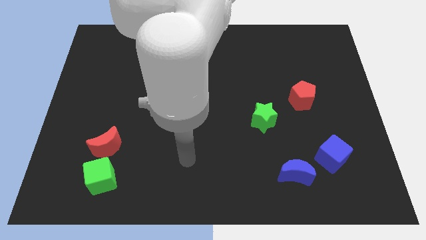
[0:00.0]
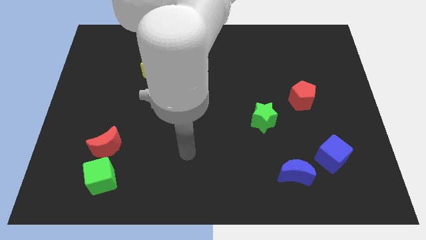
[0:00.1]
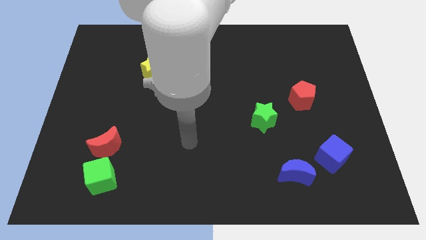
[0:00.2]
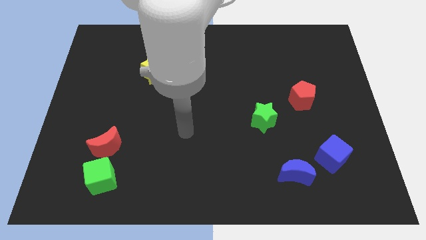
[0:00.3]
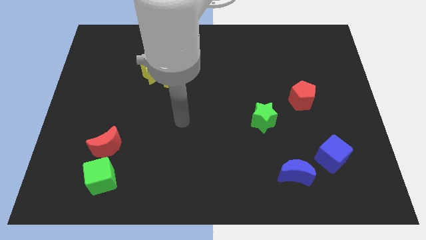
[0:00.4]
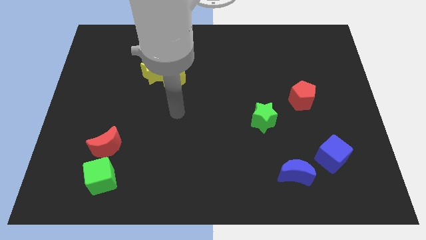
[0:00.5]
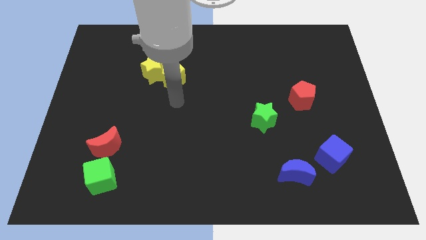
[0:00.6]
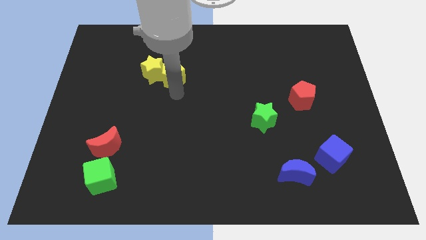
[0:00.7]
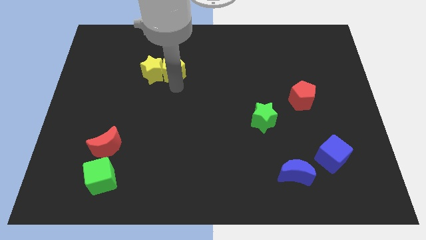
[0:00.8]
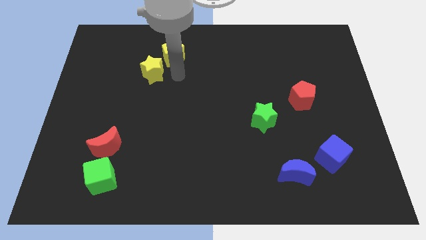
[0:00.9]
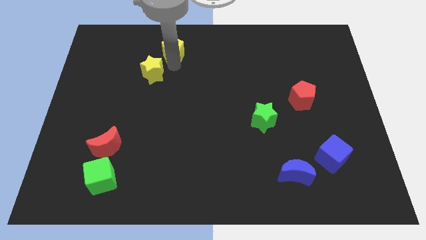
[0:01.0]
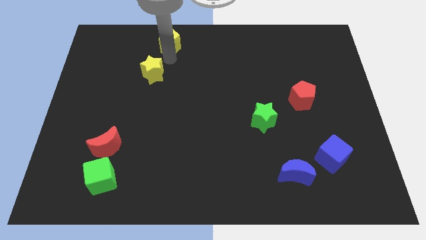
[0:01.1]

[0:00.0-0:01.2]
pull the yellow star apart from the yellow pentagon

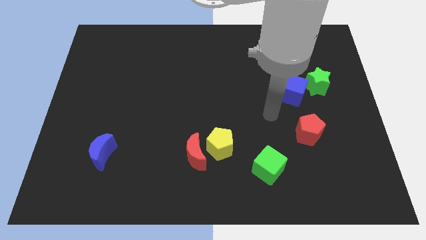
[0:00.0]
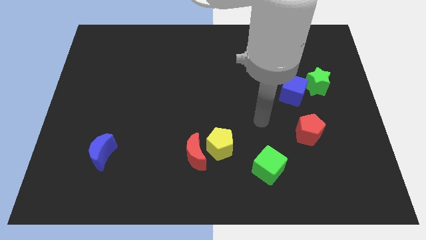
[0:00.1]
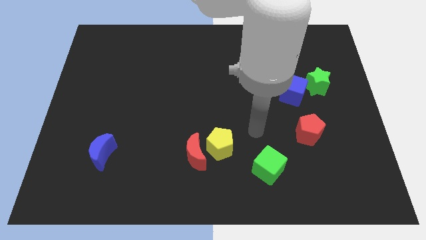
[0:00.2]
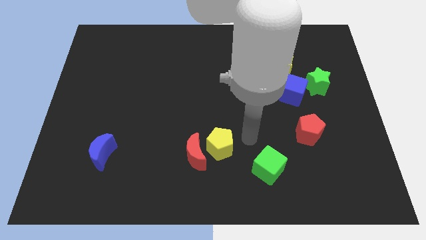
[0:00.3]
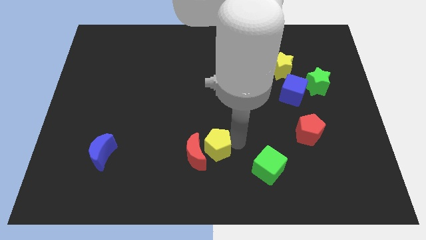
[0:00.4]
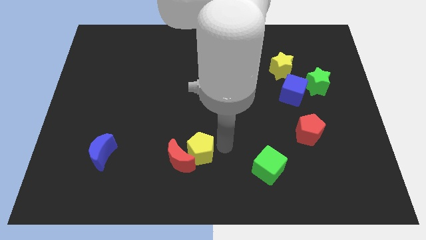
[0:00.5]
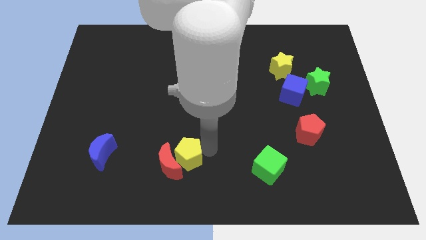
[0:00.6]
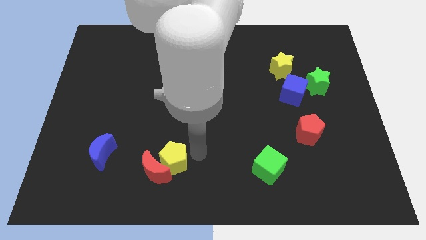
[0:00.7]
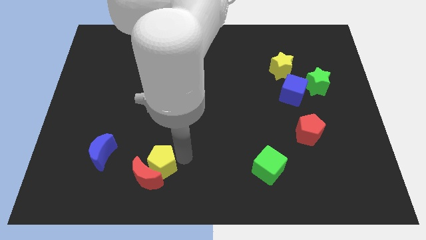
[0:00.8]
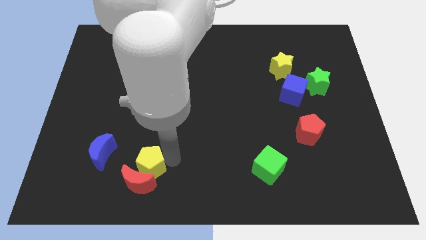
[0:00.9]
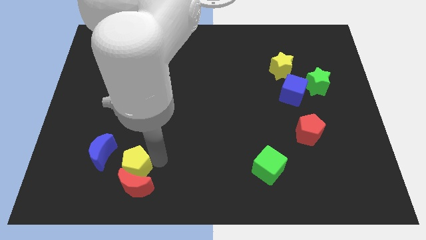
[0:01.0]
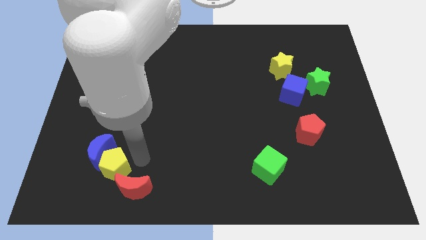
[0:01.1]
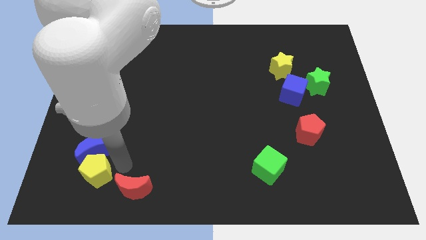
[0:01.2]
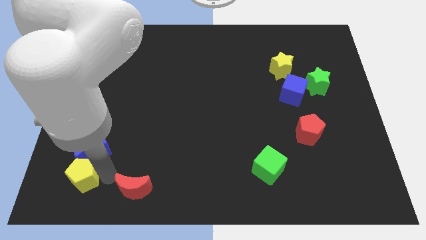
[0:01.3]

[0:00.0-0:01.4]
separate the red moon from the yellow pentagon

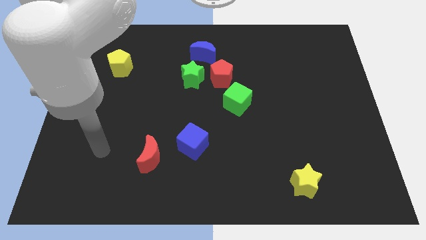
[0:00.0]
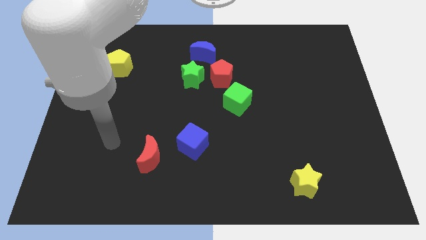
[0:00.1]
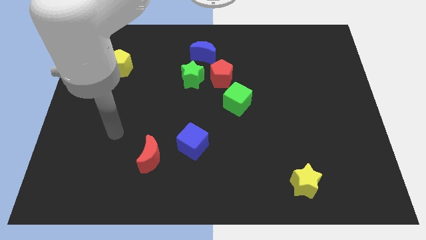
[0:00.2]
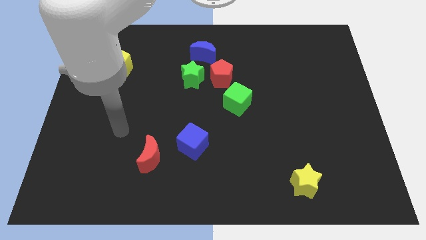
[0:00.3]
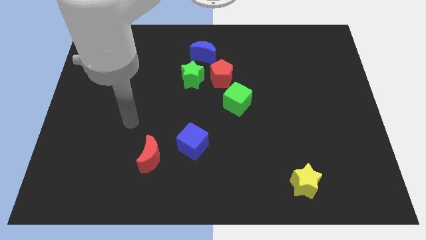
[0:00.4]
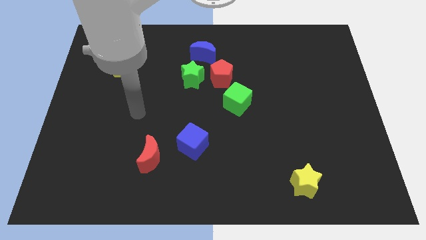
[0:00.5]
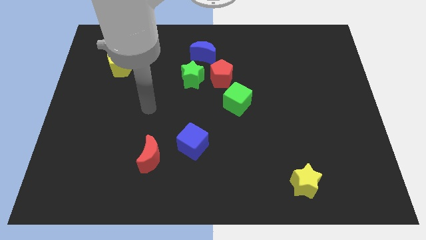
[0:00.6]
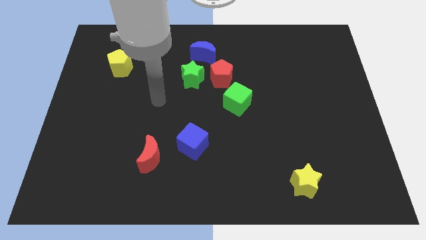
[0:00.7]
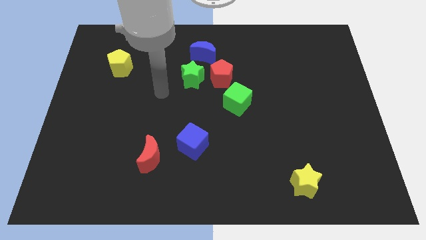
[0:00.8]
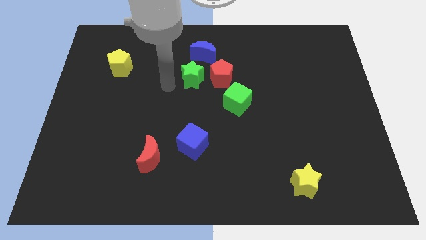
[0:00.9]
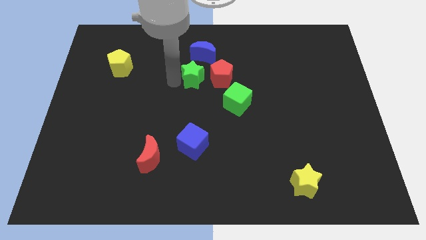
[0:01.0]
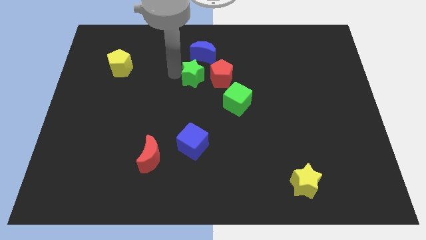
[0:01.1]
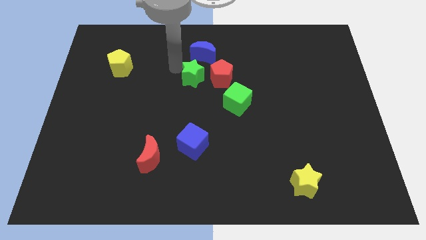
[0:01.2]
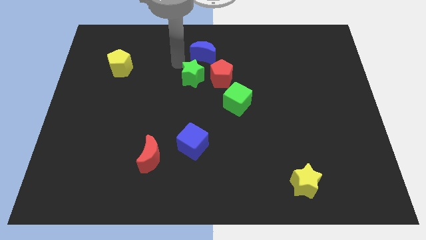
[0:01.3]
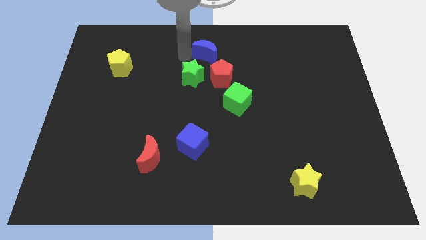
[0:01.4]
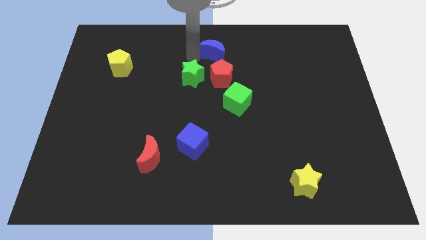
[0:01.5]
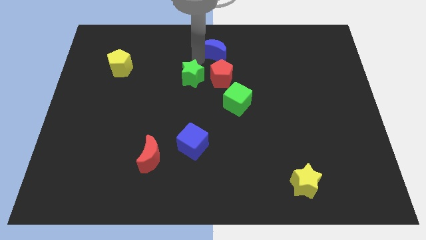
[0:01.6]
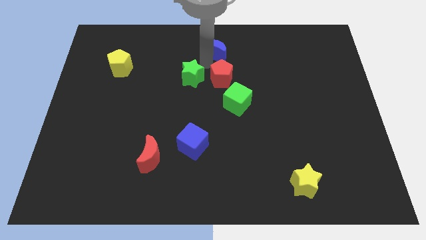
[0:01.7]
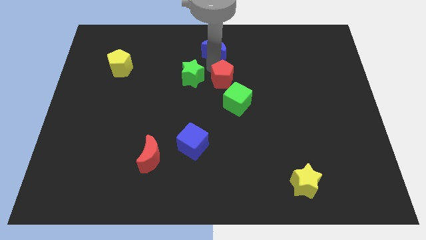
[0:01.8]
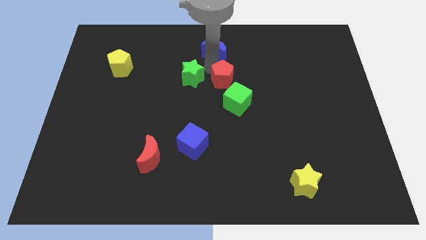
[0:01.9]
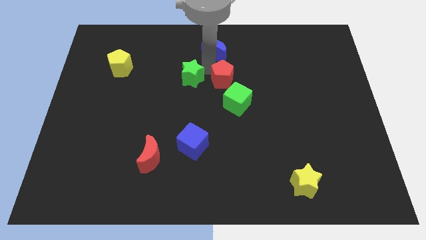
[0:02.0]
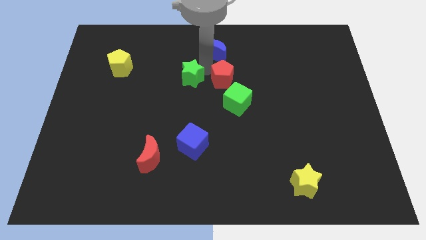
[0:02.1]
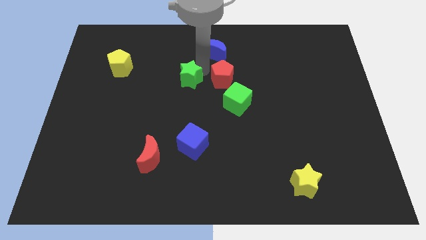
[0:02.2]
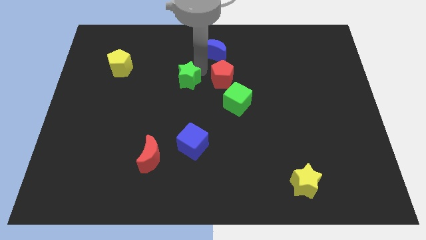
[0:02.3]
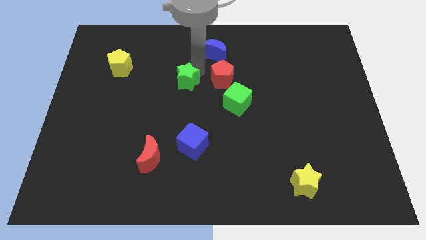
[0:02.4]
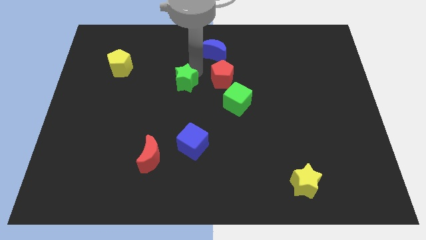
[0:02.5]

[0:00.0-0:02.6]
separate the green star from the red pentagon and blue moon

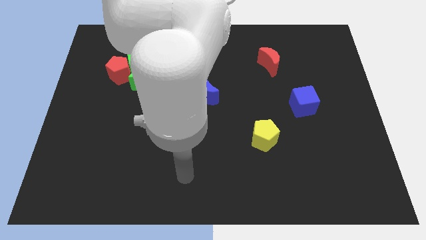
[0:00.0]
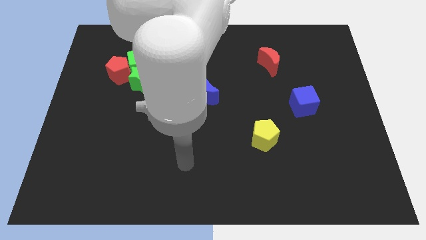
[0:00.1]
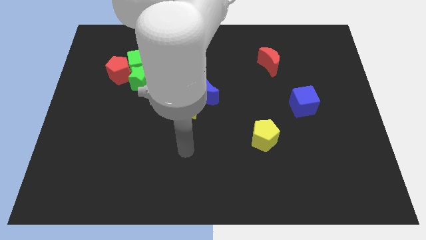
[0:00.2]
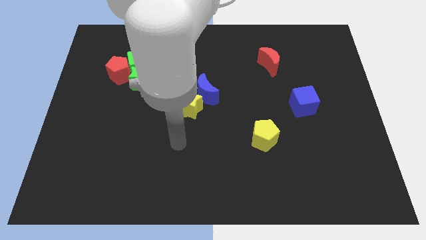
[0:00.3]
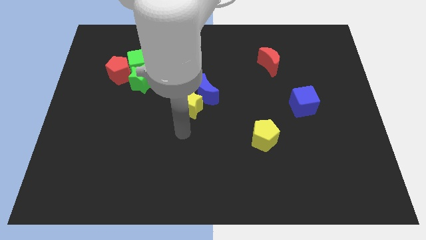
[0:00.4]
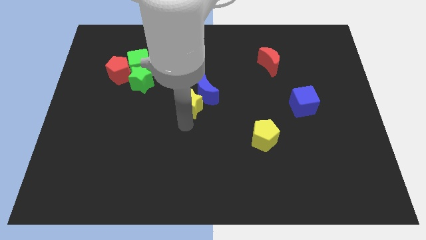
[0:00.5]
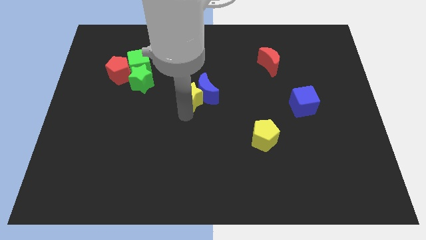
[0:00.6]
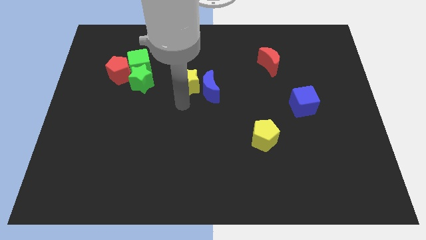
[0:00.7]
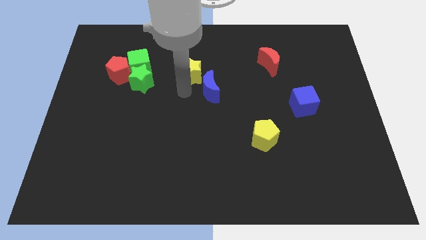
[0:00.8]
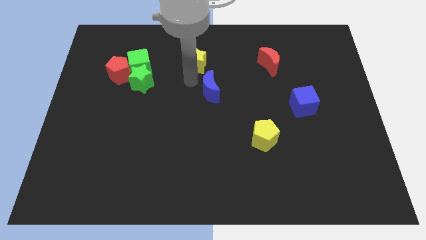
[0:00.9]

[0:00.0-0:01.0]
separate the blue moon from the yellow star

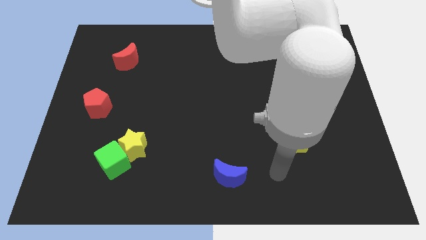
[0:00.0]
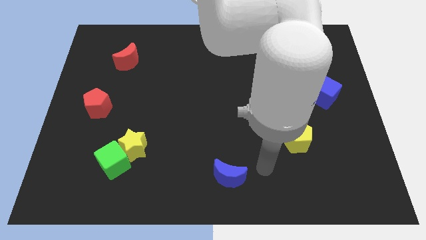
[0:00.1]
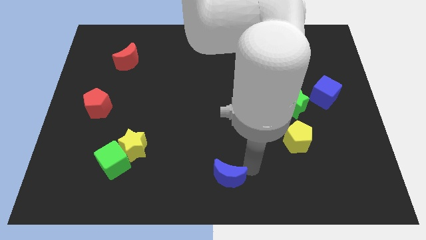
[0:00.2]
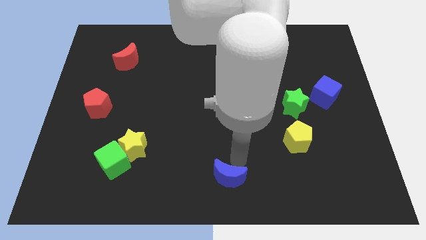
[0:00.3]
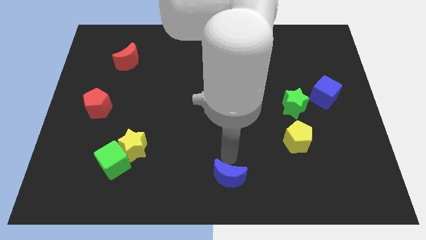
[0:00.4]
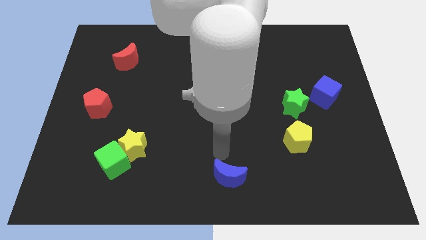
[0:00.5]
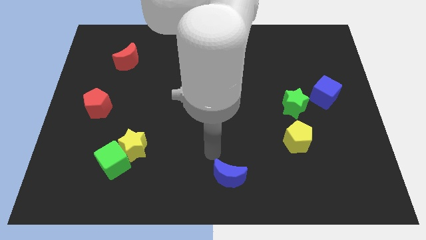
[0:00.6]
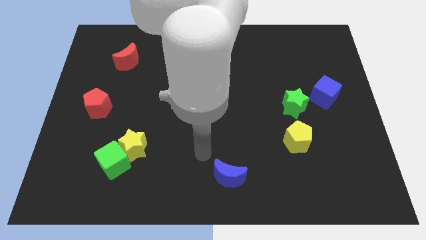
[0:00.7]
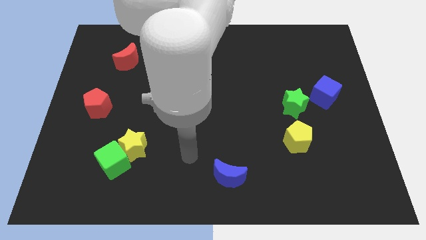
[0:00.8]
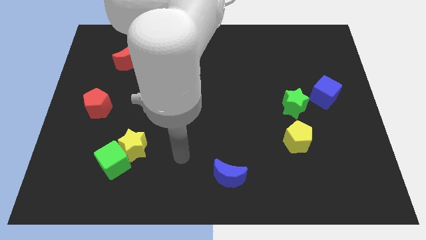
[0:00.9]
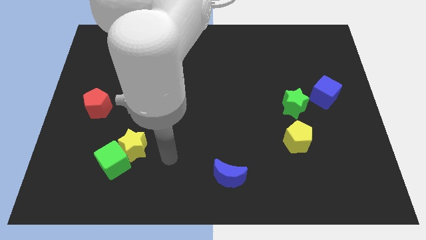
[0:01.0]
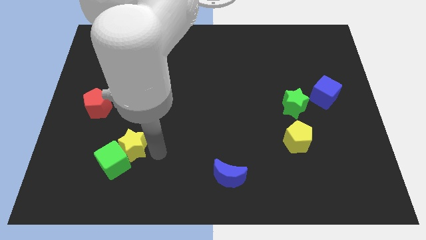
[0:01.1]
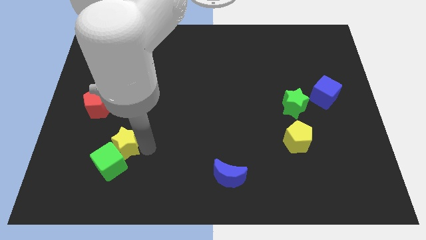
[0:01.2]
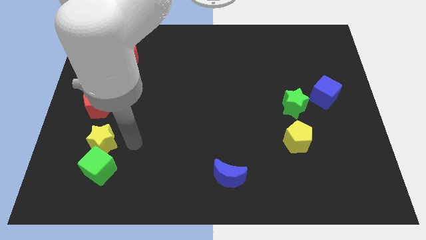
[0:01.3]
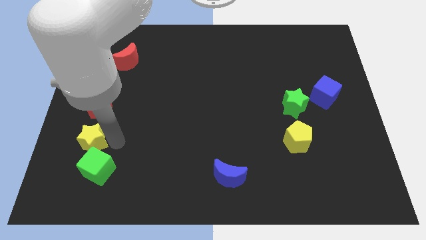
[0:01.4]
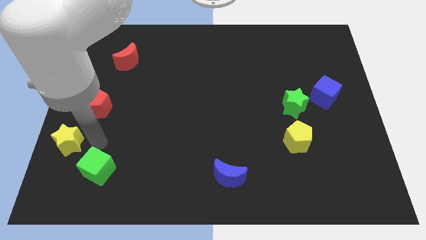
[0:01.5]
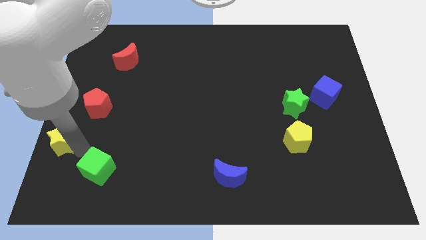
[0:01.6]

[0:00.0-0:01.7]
pull the green cube apart from the yellow star

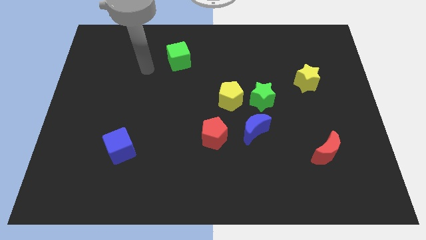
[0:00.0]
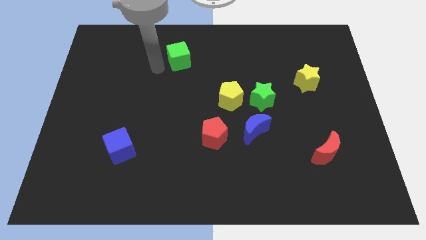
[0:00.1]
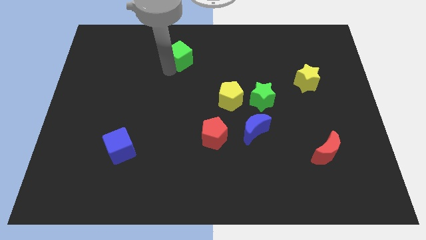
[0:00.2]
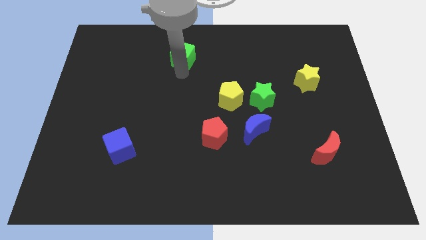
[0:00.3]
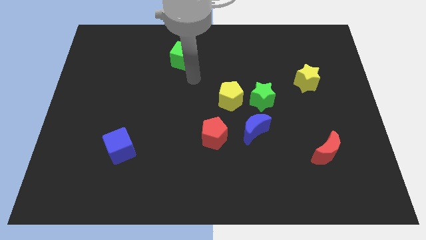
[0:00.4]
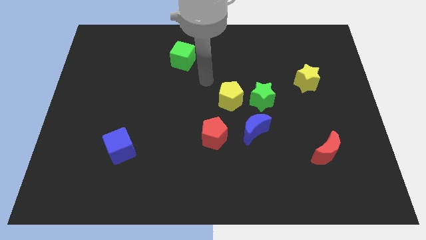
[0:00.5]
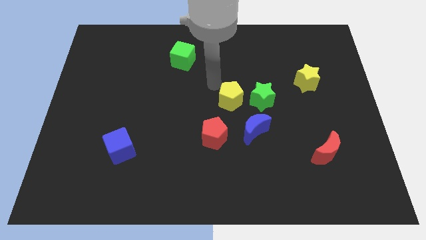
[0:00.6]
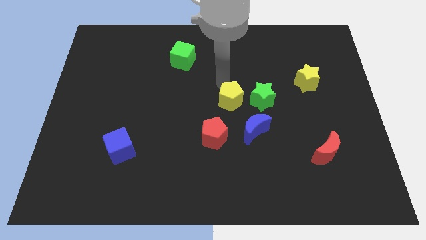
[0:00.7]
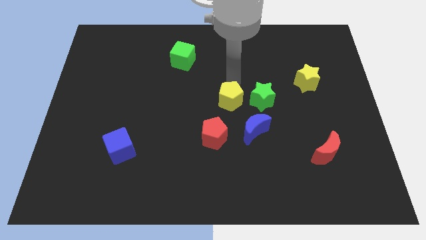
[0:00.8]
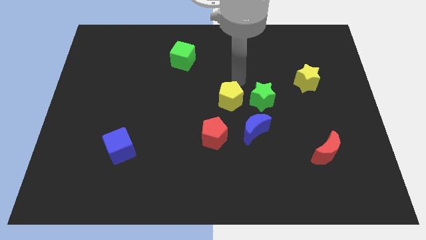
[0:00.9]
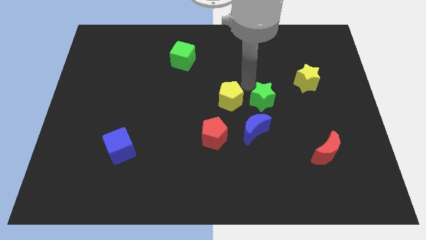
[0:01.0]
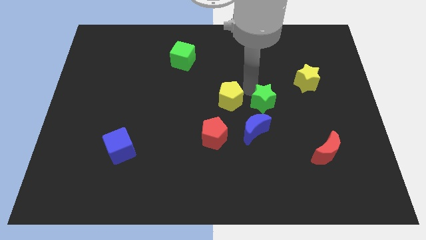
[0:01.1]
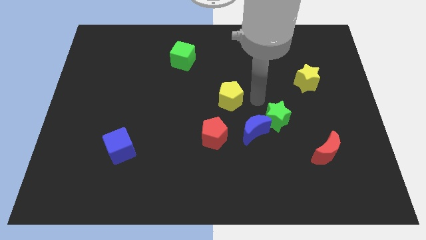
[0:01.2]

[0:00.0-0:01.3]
move the yellow pentagon away from the green star

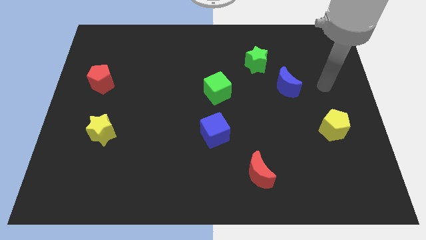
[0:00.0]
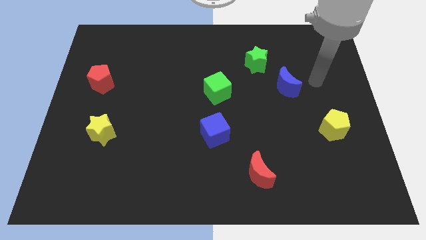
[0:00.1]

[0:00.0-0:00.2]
pull the blue moon apart from the green star

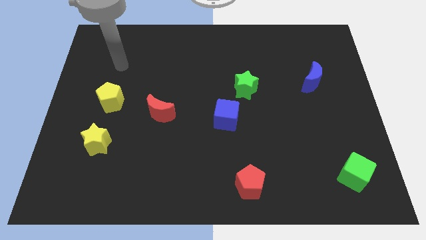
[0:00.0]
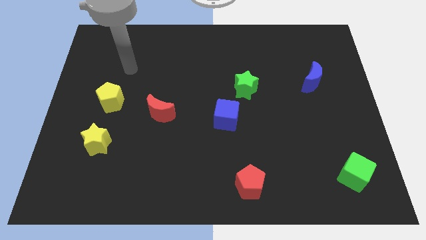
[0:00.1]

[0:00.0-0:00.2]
pull the blue cube apart from the green star
